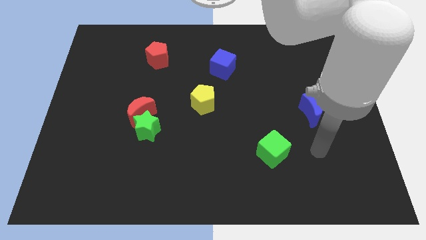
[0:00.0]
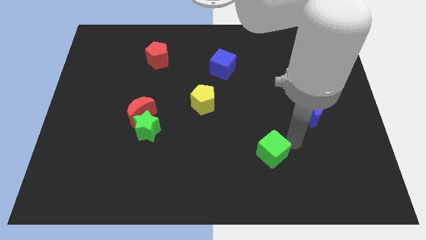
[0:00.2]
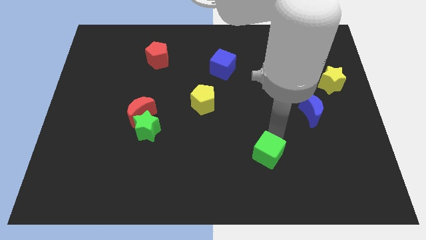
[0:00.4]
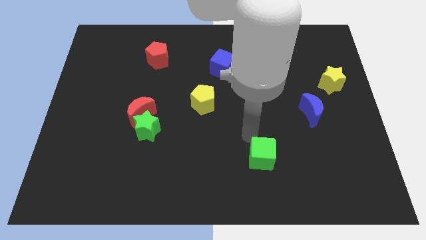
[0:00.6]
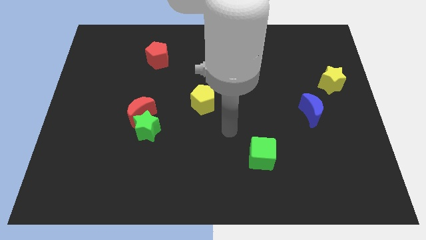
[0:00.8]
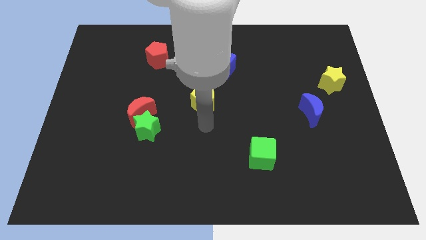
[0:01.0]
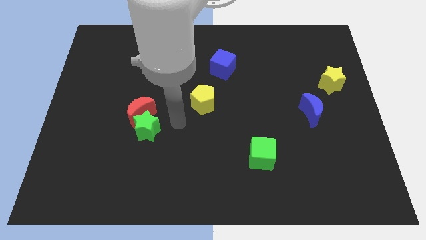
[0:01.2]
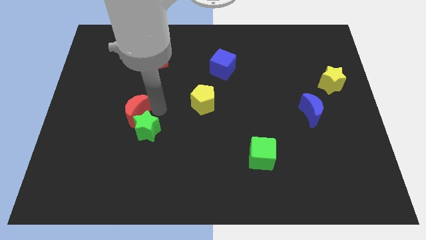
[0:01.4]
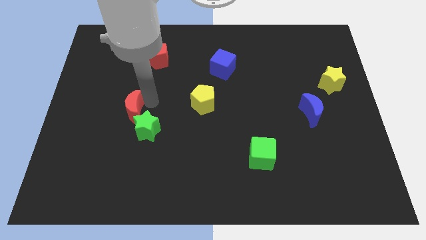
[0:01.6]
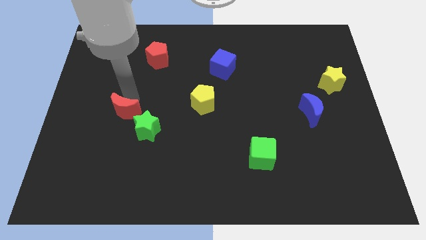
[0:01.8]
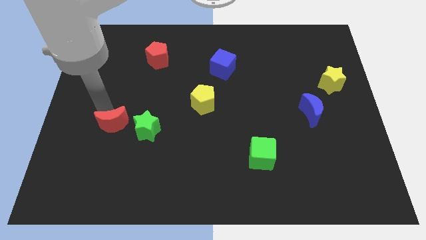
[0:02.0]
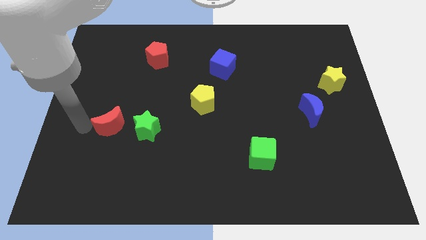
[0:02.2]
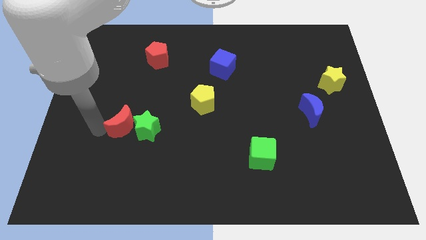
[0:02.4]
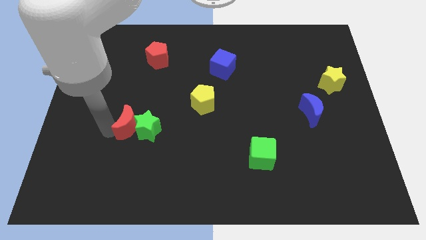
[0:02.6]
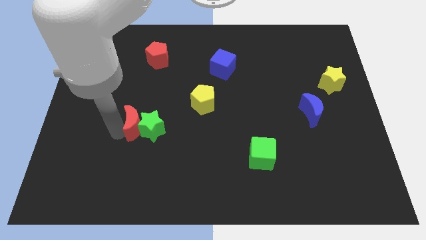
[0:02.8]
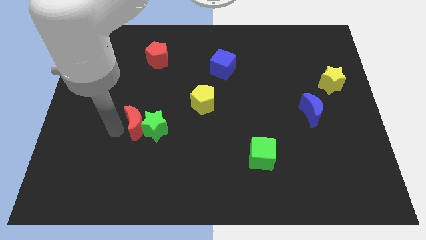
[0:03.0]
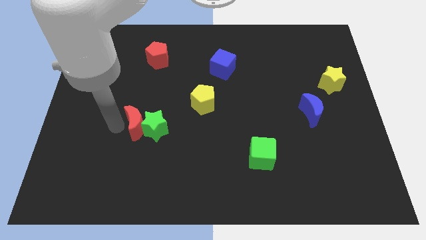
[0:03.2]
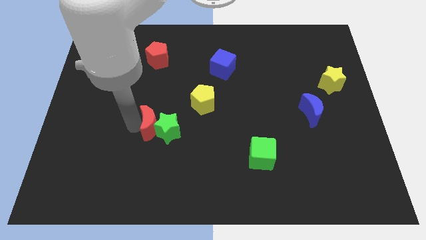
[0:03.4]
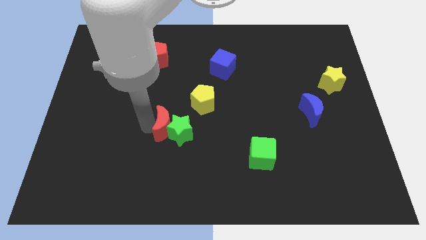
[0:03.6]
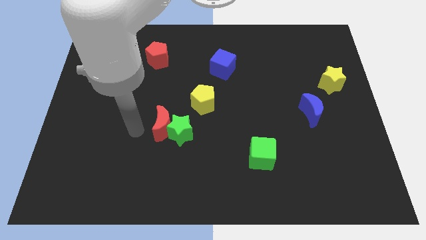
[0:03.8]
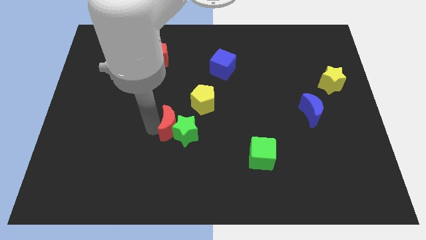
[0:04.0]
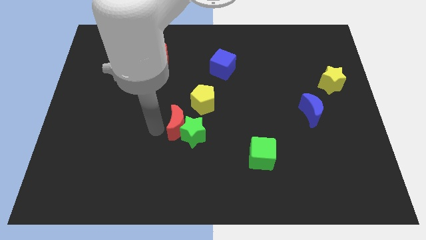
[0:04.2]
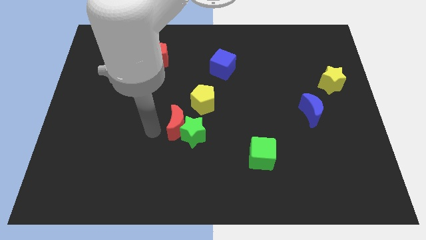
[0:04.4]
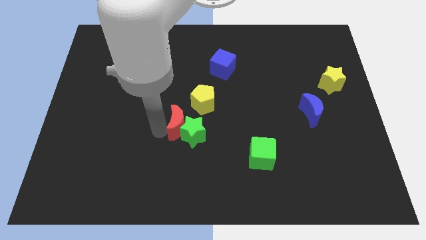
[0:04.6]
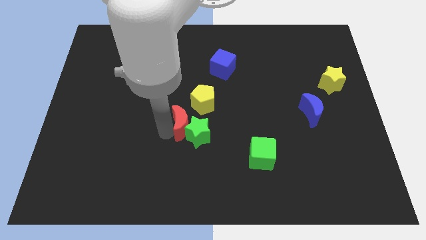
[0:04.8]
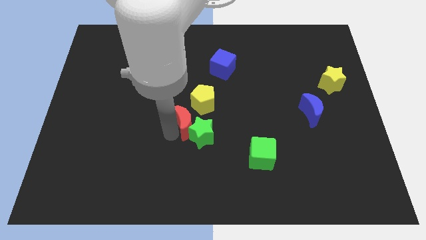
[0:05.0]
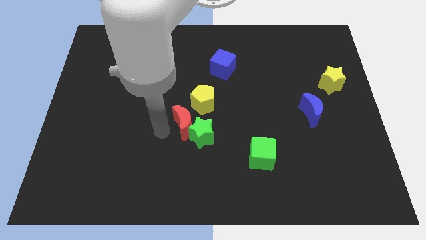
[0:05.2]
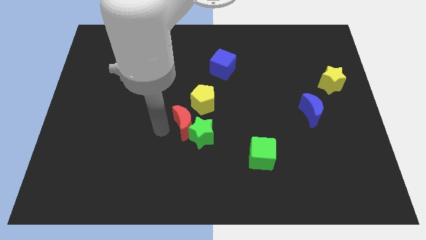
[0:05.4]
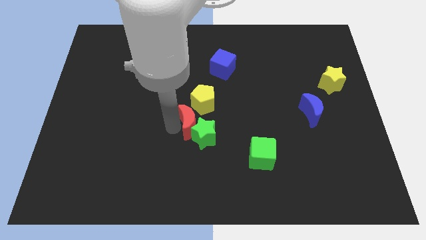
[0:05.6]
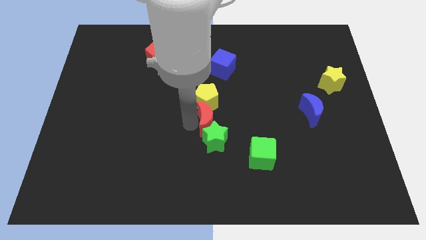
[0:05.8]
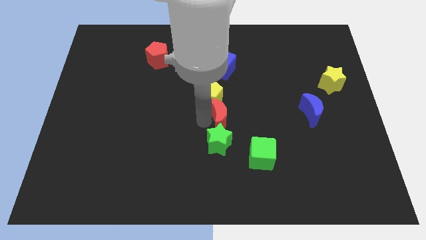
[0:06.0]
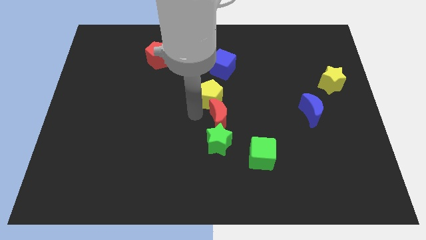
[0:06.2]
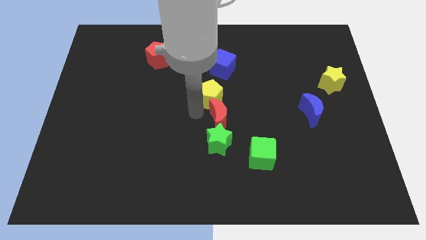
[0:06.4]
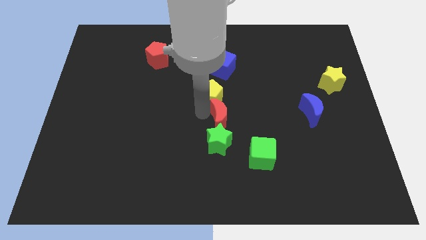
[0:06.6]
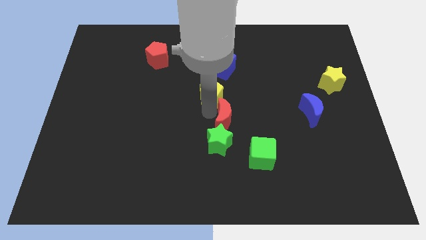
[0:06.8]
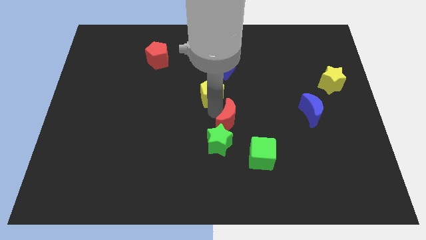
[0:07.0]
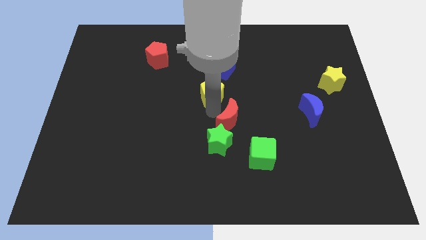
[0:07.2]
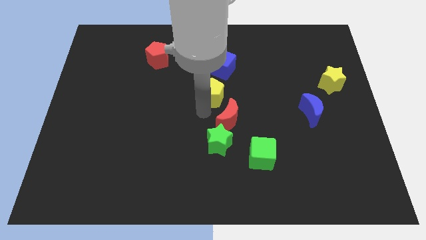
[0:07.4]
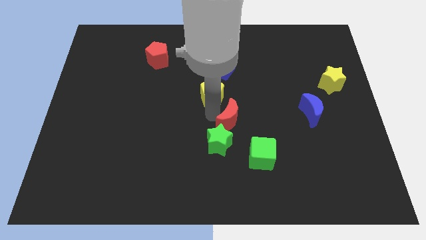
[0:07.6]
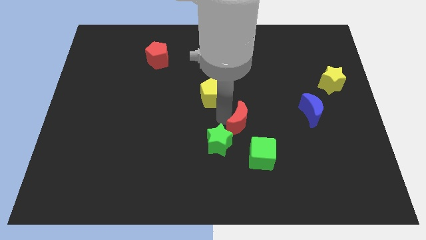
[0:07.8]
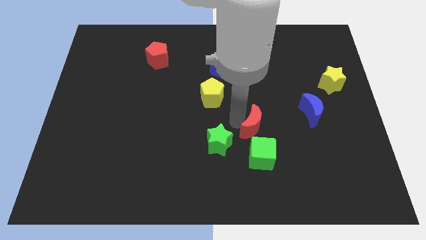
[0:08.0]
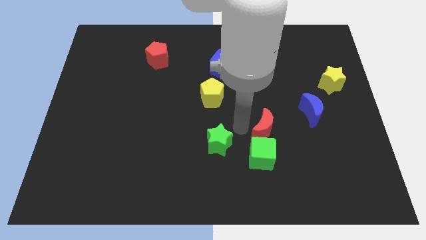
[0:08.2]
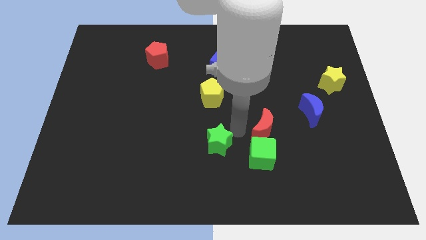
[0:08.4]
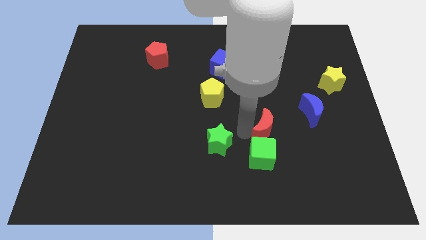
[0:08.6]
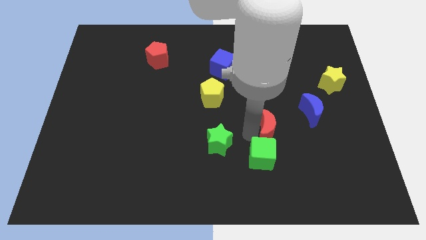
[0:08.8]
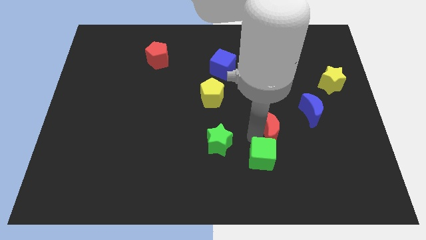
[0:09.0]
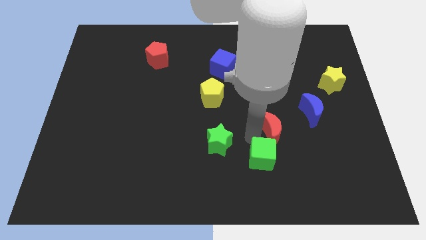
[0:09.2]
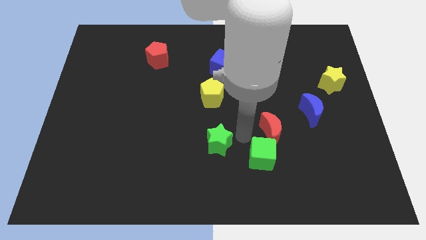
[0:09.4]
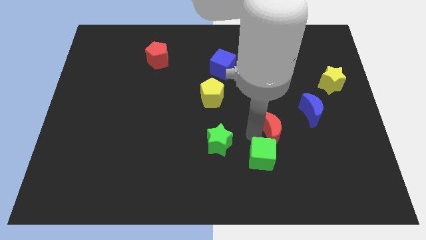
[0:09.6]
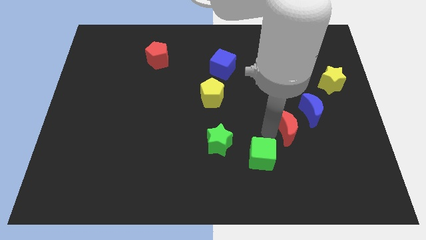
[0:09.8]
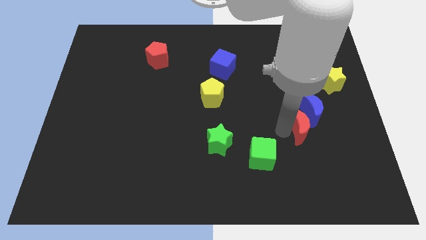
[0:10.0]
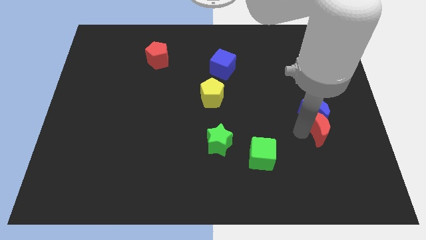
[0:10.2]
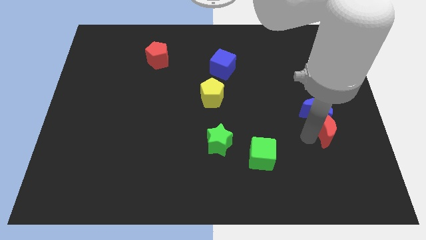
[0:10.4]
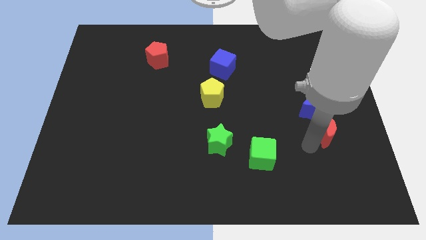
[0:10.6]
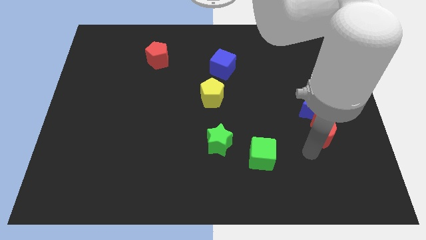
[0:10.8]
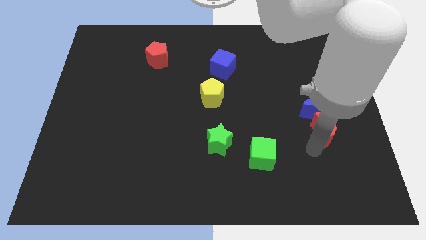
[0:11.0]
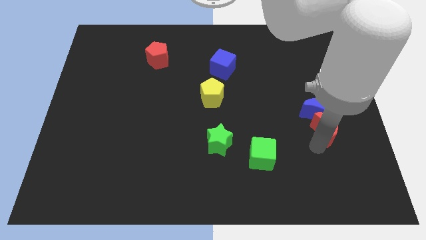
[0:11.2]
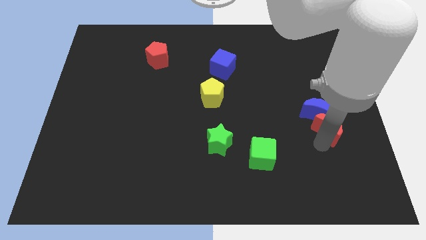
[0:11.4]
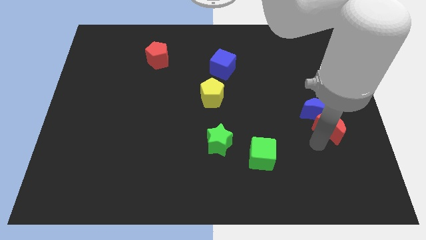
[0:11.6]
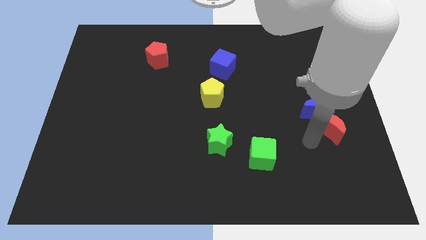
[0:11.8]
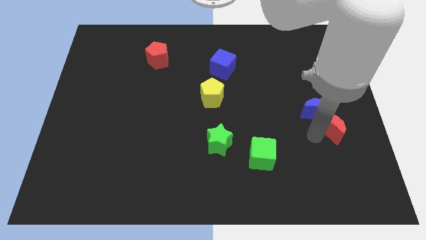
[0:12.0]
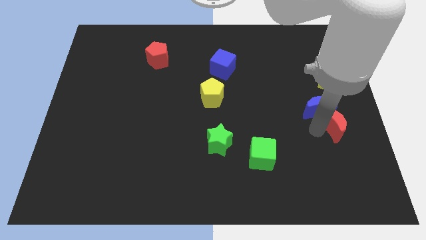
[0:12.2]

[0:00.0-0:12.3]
put the red moon to the right side

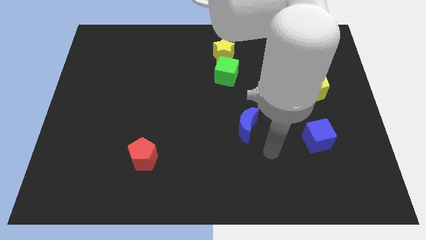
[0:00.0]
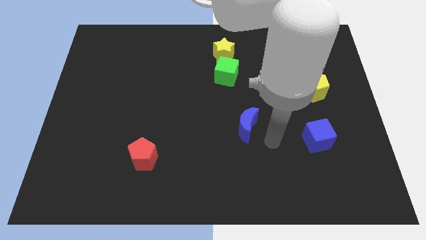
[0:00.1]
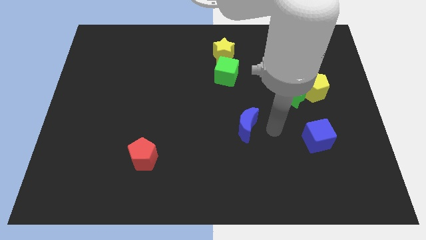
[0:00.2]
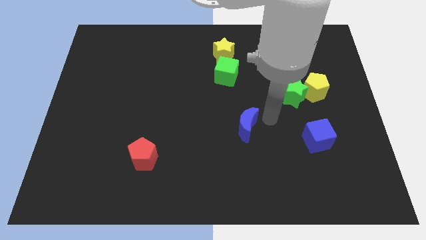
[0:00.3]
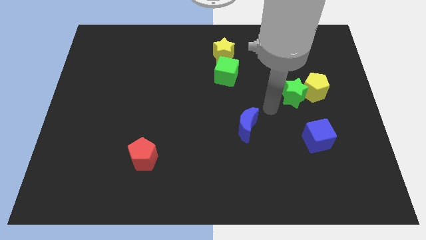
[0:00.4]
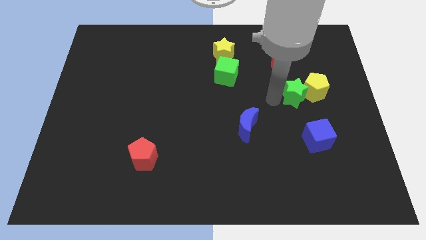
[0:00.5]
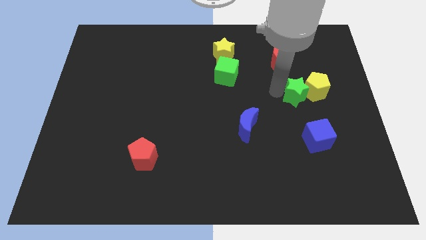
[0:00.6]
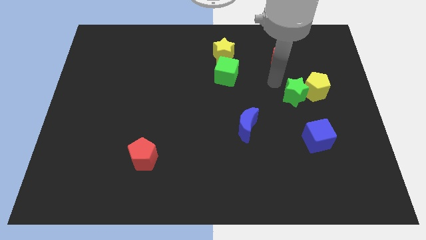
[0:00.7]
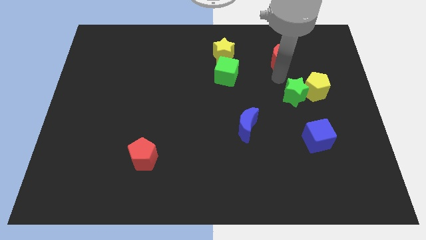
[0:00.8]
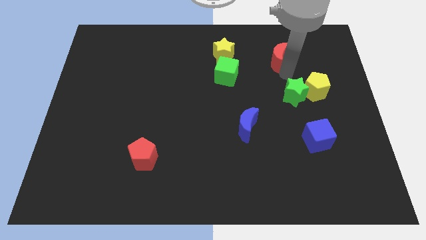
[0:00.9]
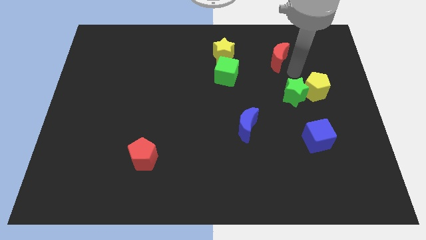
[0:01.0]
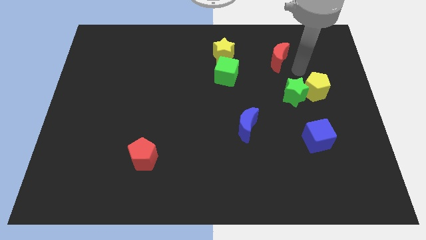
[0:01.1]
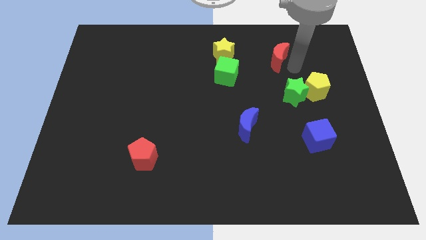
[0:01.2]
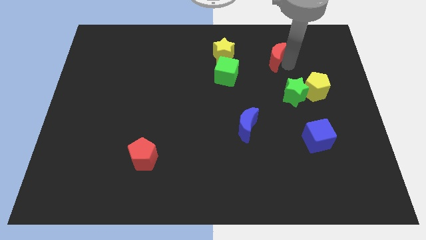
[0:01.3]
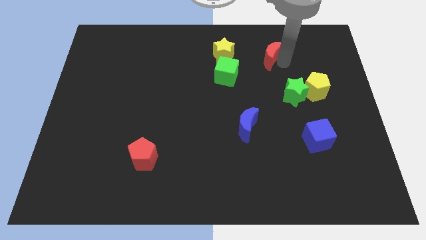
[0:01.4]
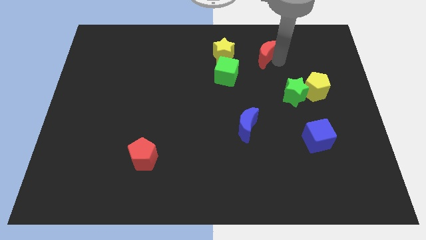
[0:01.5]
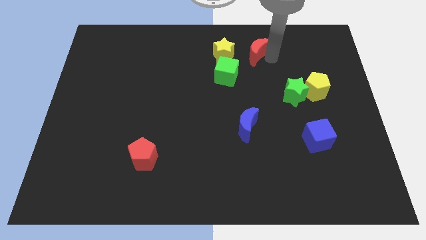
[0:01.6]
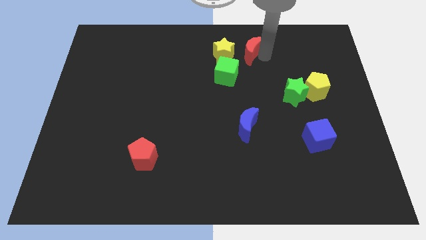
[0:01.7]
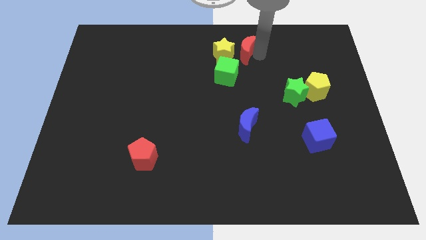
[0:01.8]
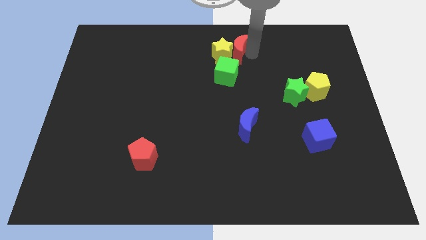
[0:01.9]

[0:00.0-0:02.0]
slide the red moon to the top
